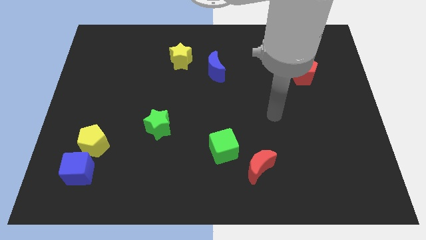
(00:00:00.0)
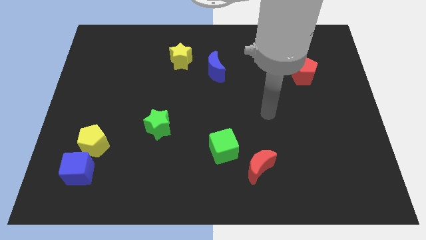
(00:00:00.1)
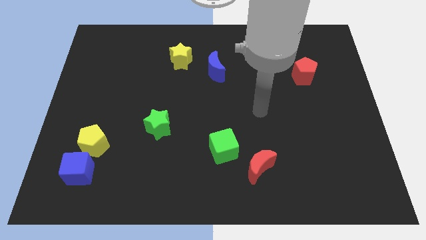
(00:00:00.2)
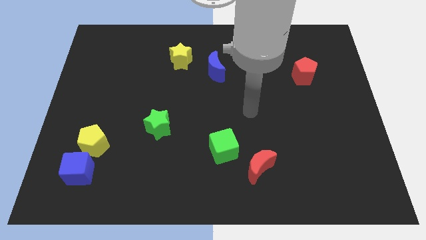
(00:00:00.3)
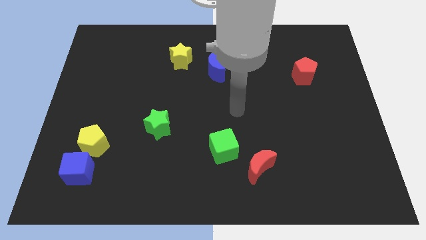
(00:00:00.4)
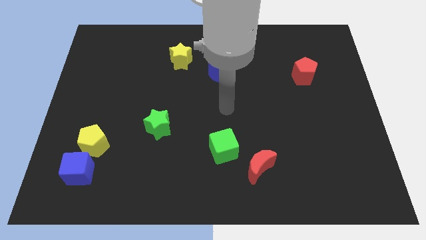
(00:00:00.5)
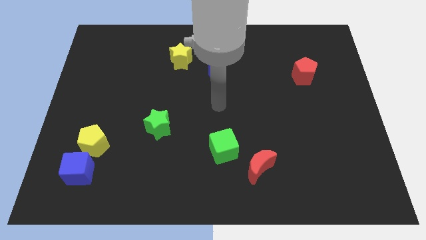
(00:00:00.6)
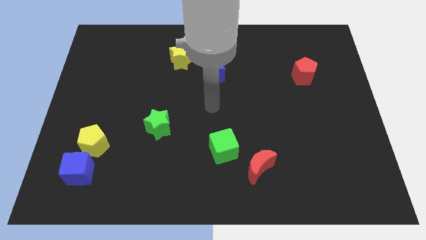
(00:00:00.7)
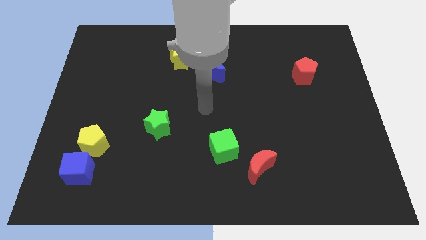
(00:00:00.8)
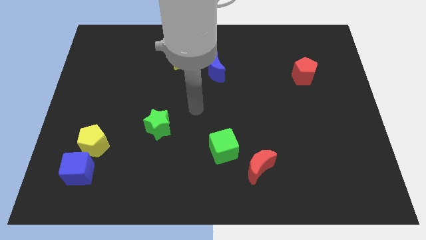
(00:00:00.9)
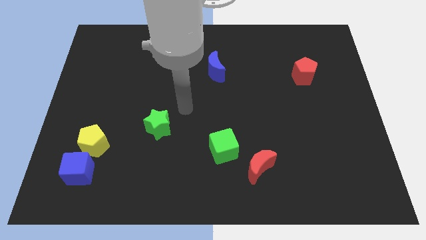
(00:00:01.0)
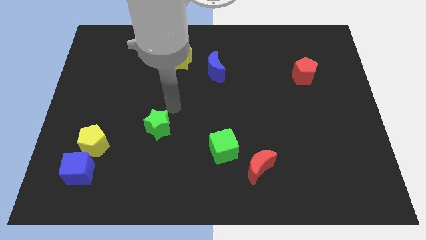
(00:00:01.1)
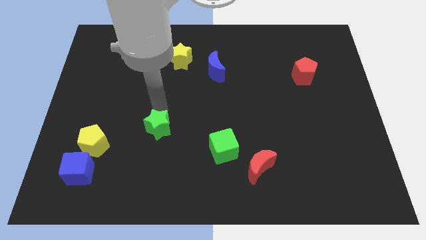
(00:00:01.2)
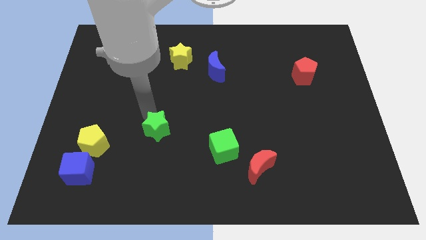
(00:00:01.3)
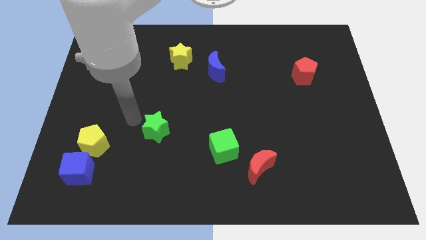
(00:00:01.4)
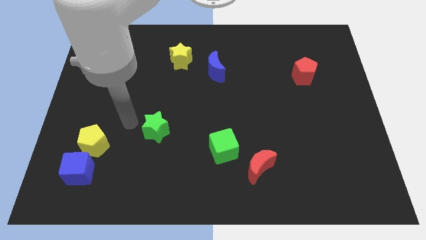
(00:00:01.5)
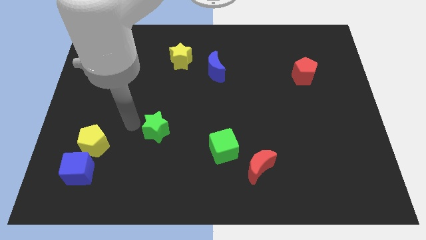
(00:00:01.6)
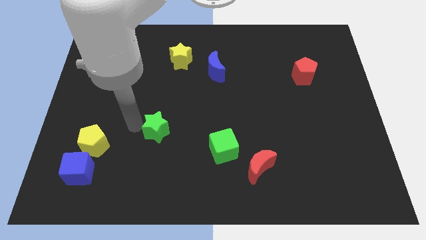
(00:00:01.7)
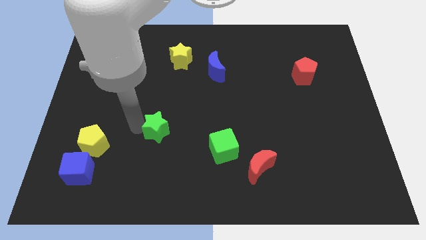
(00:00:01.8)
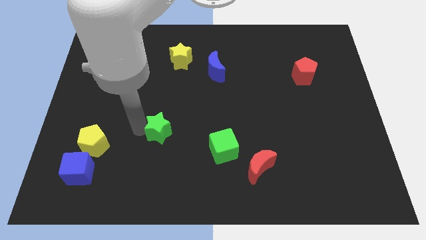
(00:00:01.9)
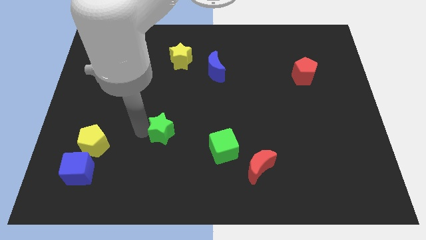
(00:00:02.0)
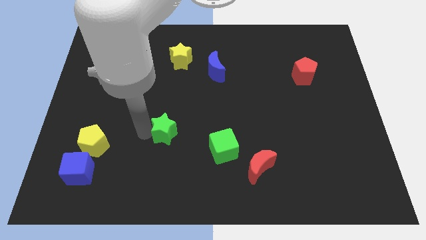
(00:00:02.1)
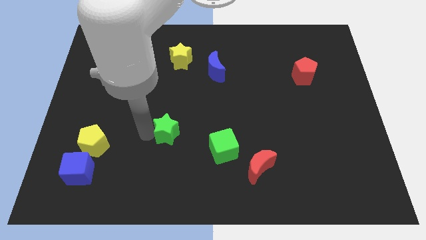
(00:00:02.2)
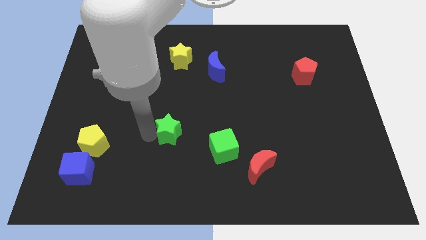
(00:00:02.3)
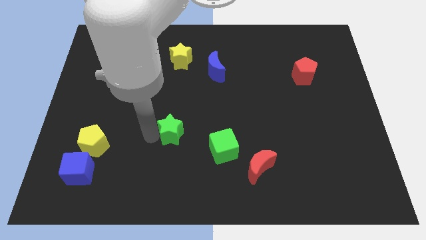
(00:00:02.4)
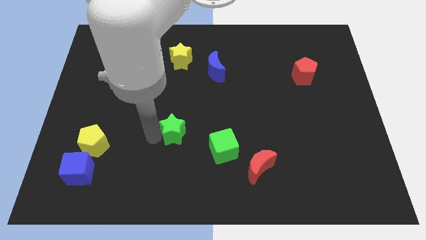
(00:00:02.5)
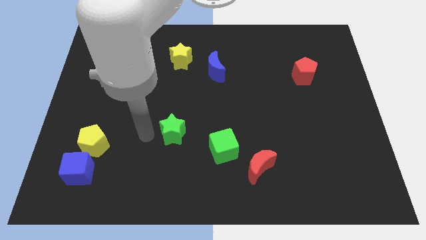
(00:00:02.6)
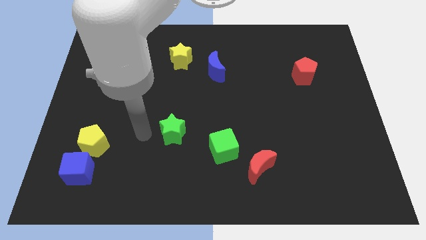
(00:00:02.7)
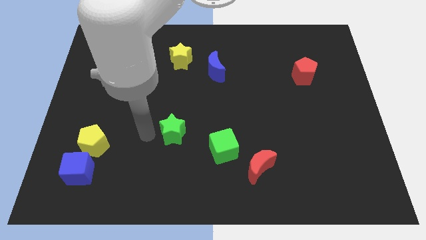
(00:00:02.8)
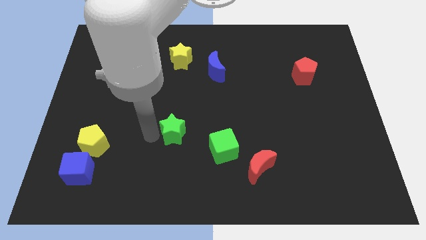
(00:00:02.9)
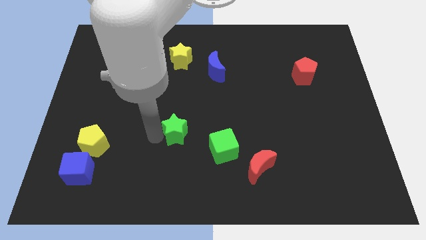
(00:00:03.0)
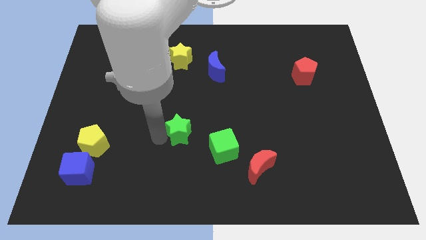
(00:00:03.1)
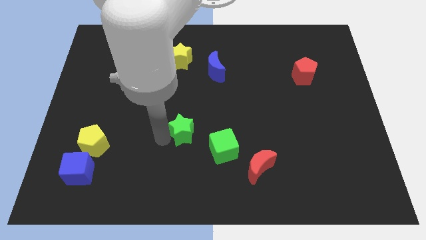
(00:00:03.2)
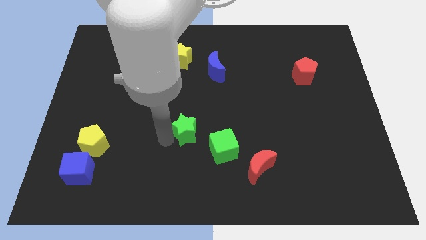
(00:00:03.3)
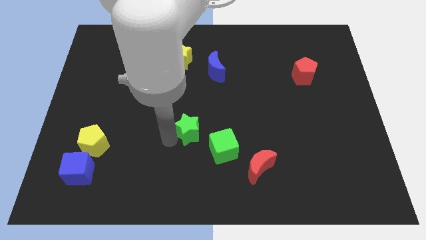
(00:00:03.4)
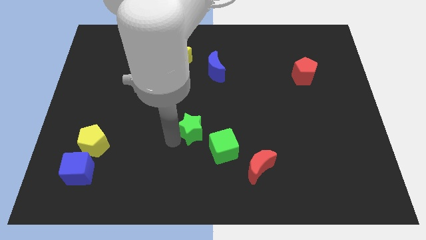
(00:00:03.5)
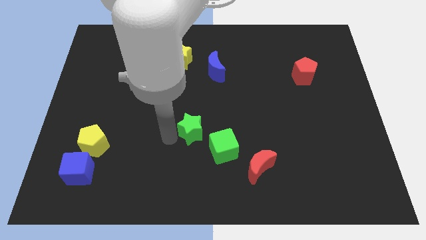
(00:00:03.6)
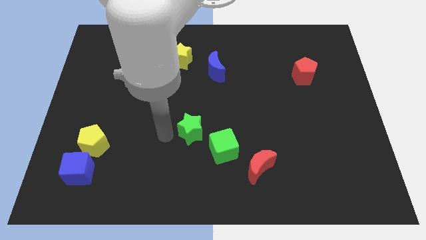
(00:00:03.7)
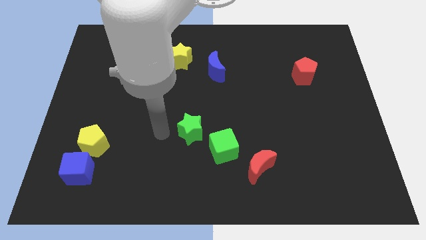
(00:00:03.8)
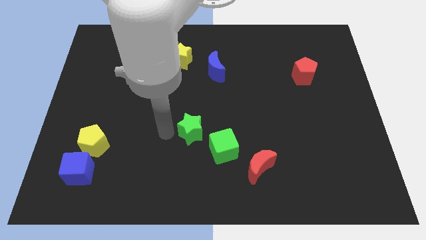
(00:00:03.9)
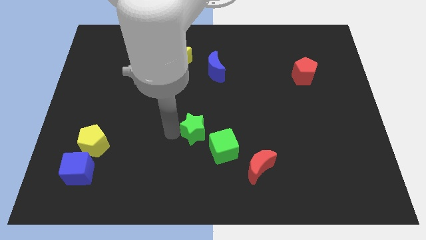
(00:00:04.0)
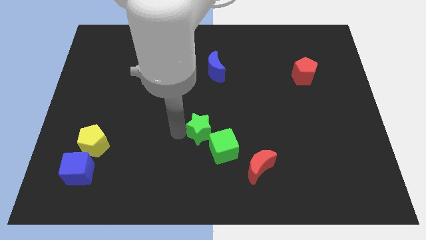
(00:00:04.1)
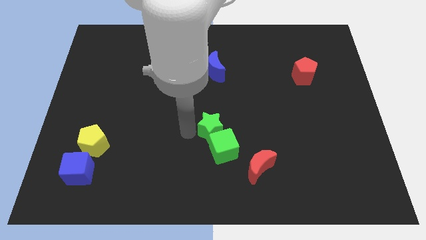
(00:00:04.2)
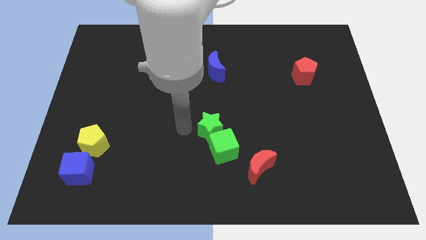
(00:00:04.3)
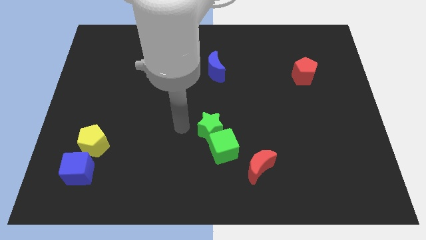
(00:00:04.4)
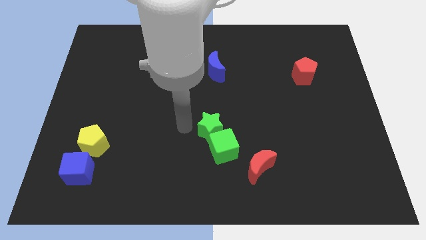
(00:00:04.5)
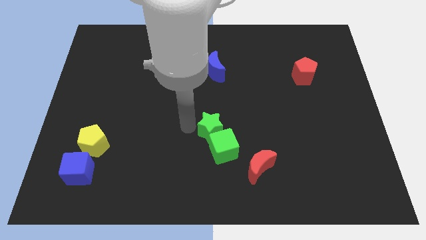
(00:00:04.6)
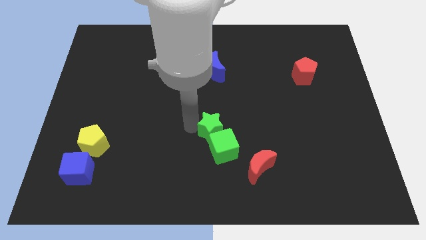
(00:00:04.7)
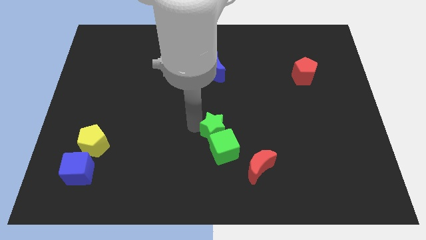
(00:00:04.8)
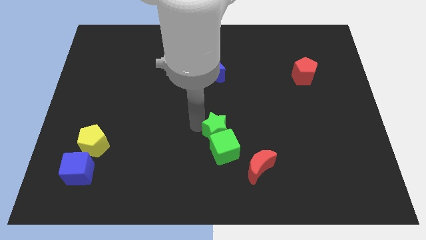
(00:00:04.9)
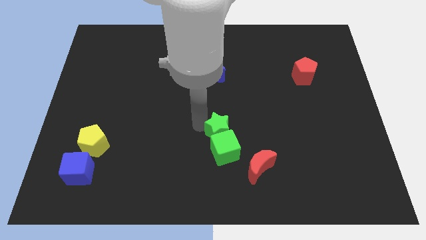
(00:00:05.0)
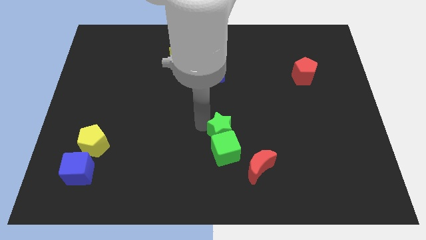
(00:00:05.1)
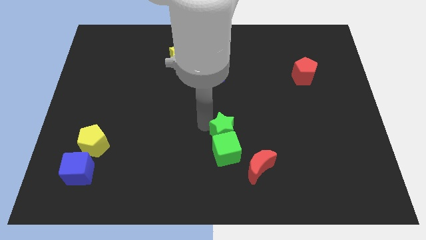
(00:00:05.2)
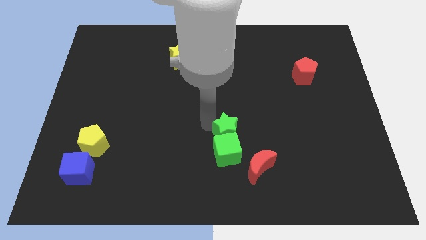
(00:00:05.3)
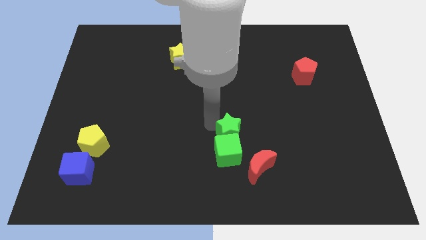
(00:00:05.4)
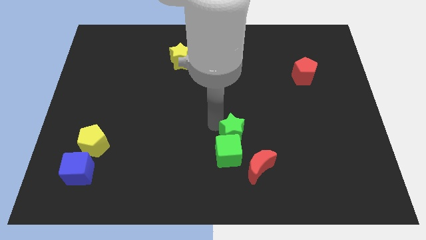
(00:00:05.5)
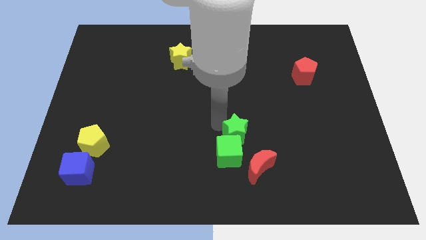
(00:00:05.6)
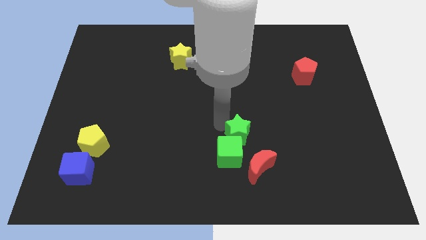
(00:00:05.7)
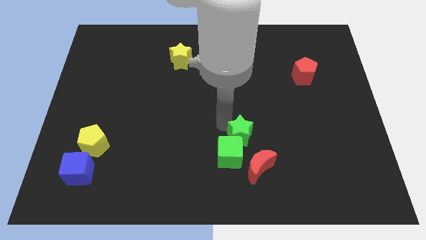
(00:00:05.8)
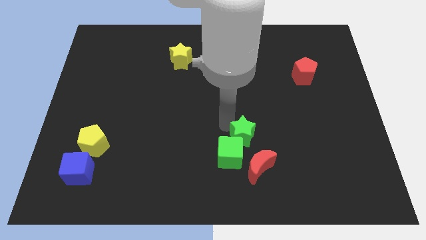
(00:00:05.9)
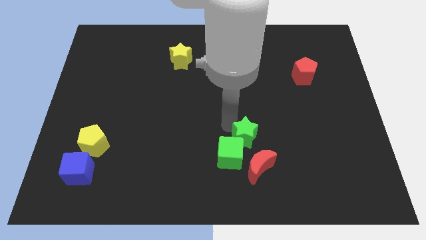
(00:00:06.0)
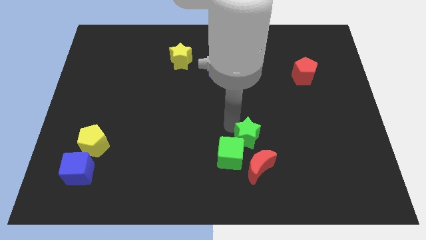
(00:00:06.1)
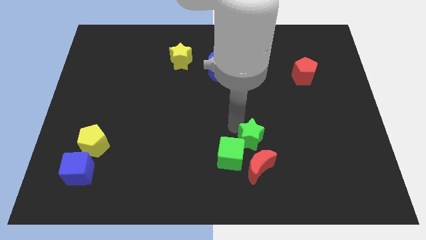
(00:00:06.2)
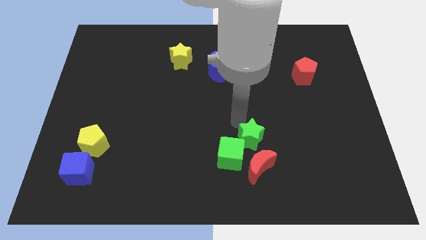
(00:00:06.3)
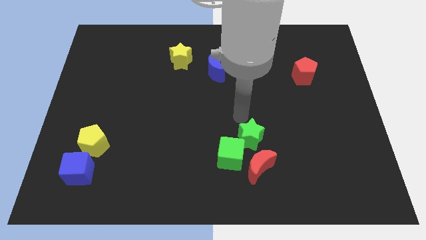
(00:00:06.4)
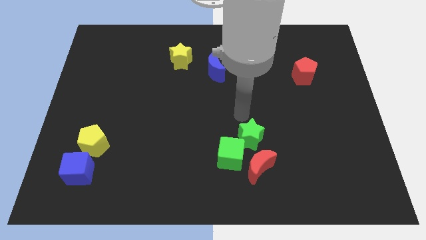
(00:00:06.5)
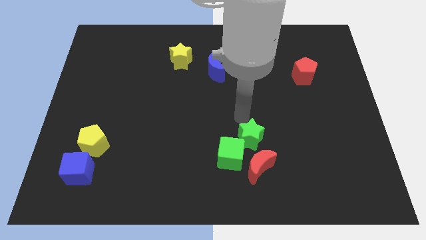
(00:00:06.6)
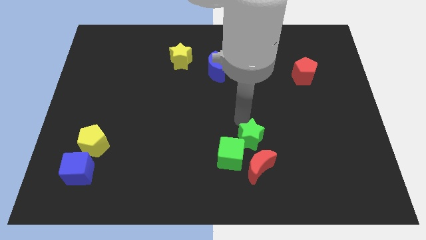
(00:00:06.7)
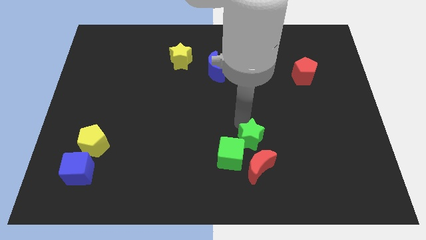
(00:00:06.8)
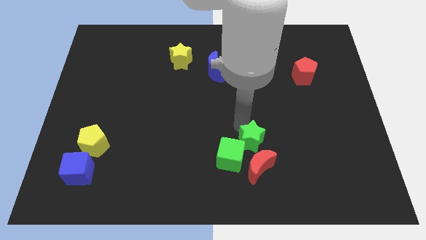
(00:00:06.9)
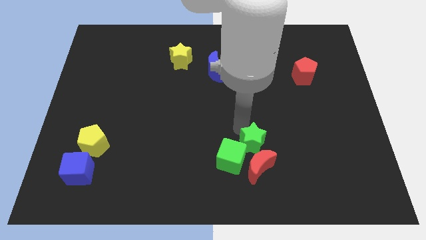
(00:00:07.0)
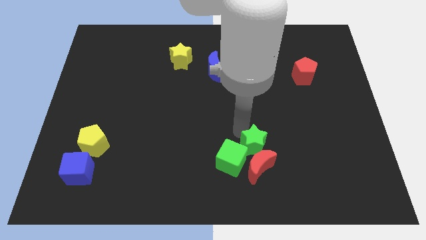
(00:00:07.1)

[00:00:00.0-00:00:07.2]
move the green star to the red moon

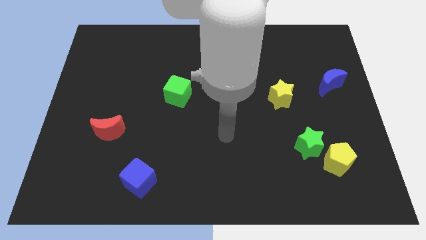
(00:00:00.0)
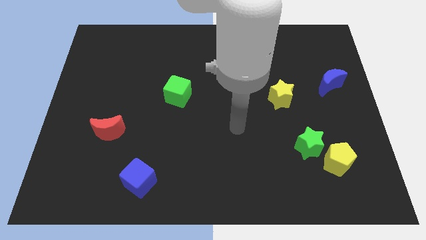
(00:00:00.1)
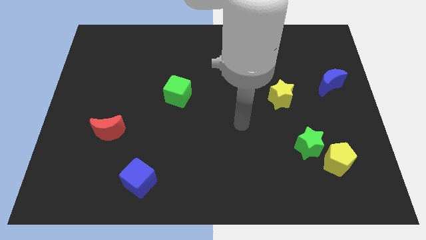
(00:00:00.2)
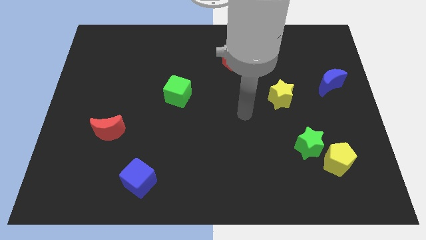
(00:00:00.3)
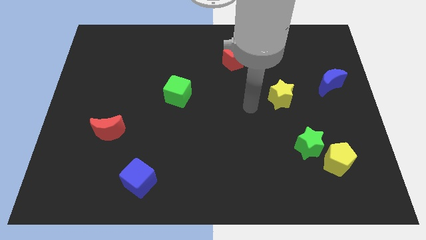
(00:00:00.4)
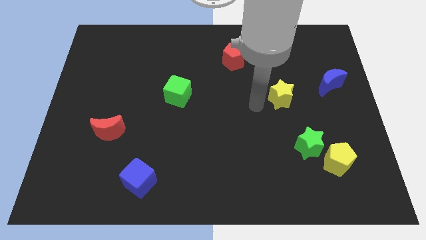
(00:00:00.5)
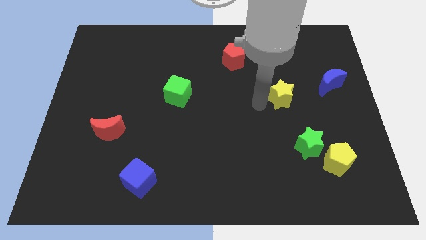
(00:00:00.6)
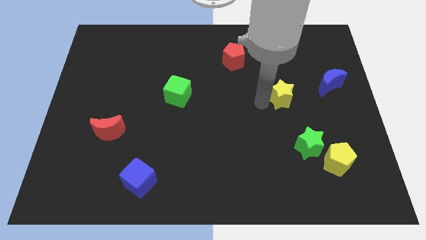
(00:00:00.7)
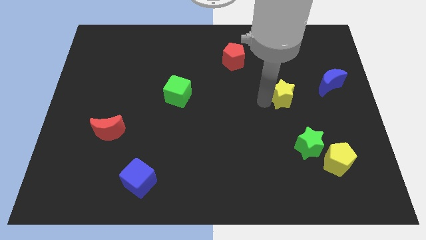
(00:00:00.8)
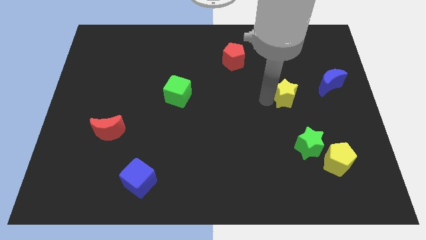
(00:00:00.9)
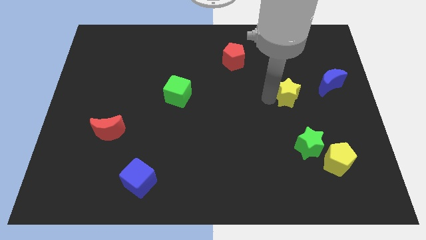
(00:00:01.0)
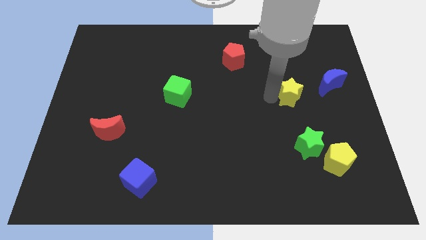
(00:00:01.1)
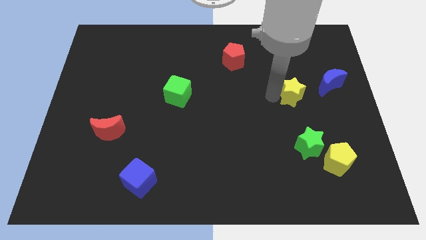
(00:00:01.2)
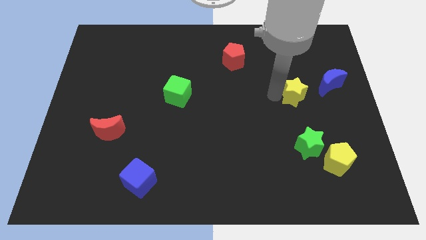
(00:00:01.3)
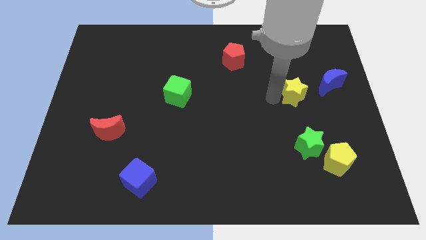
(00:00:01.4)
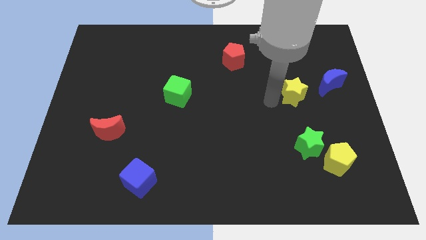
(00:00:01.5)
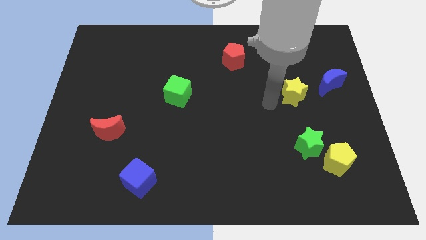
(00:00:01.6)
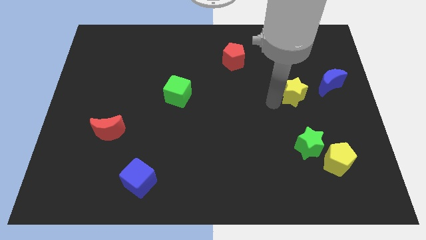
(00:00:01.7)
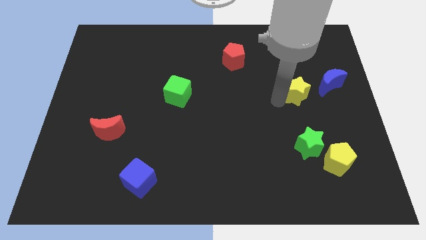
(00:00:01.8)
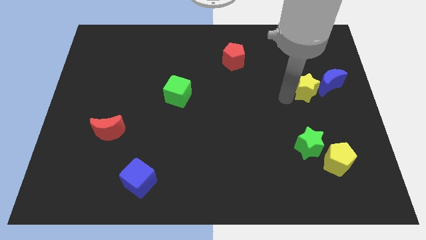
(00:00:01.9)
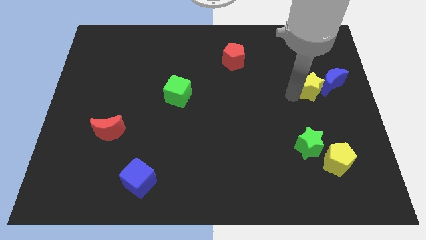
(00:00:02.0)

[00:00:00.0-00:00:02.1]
push the yellow star close to the blue moon
